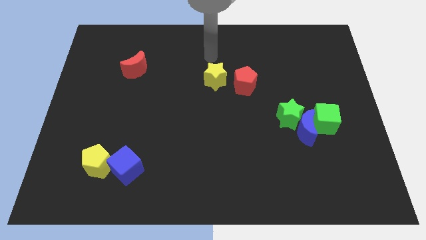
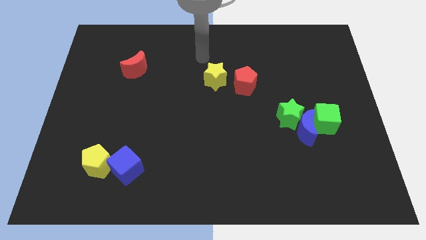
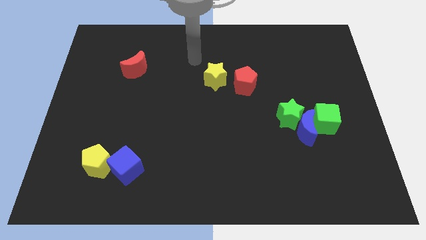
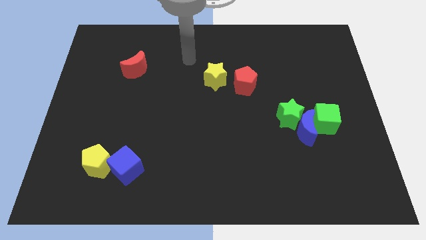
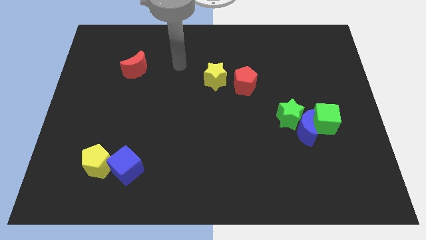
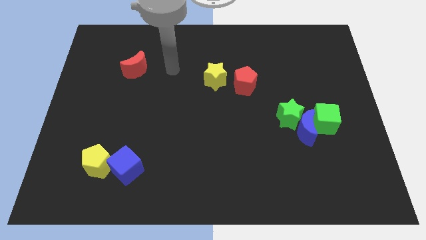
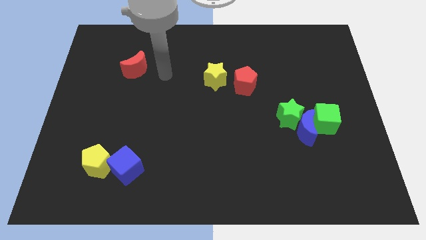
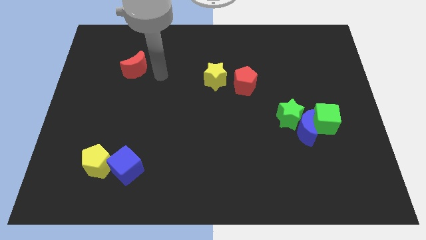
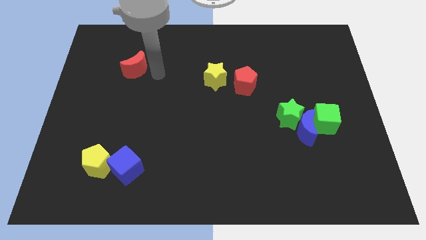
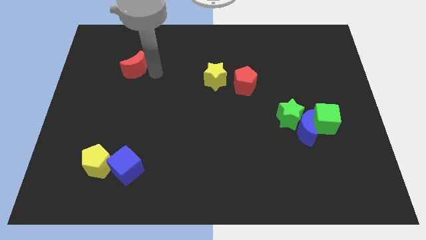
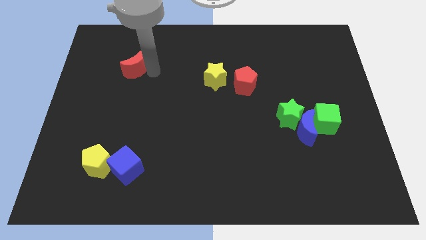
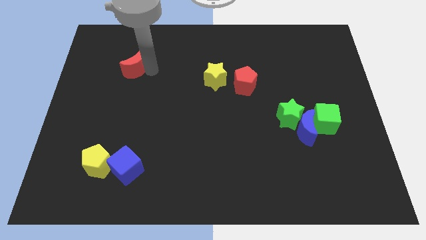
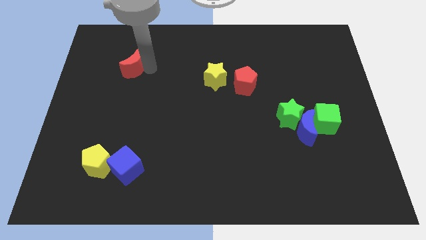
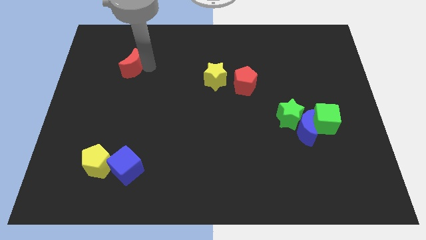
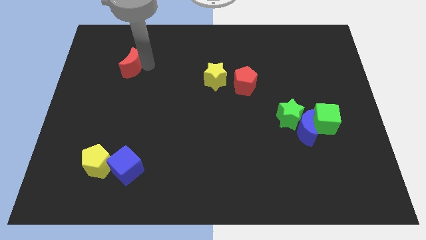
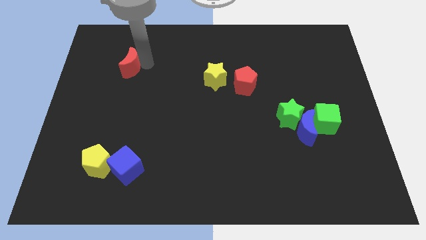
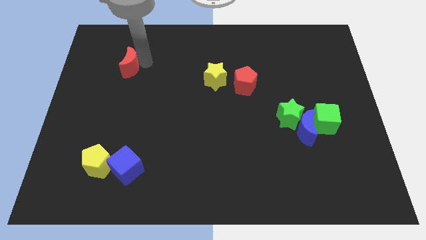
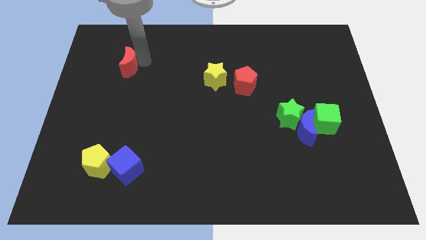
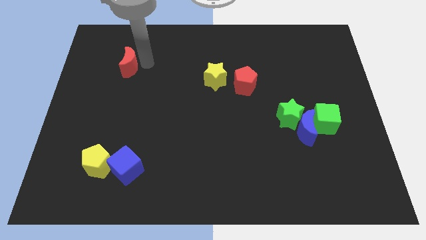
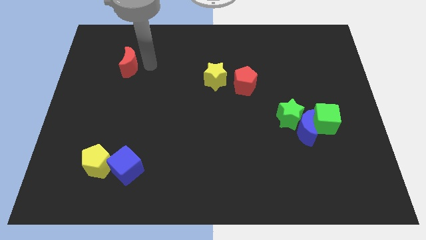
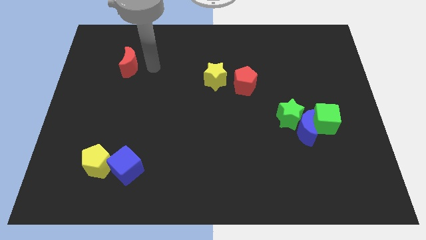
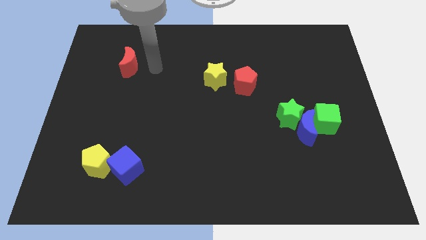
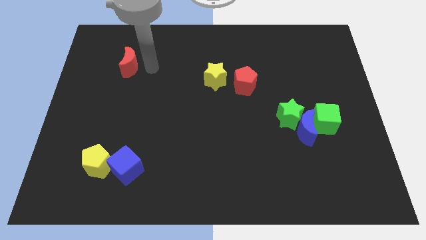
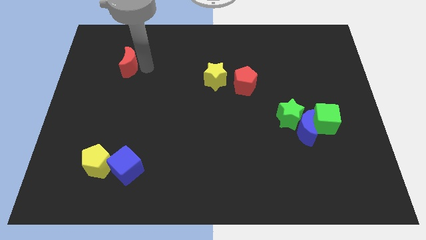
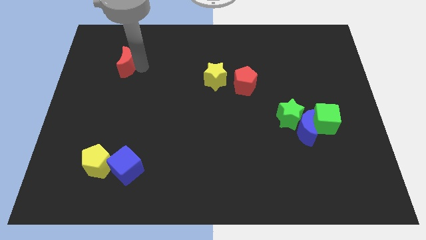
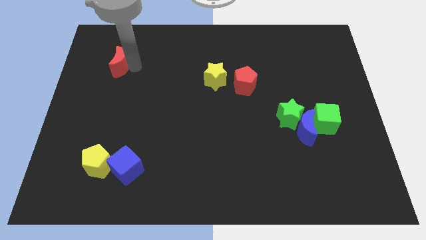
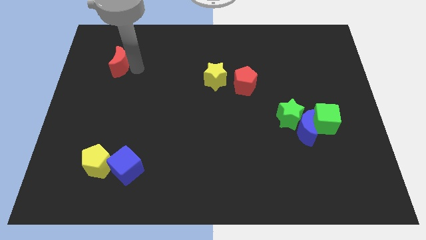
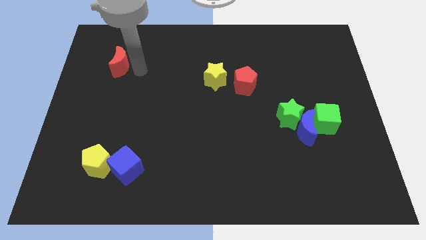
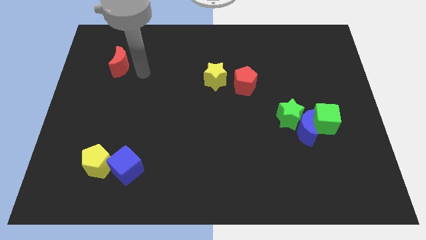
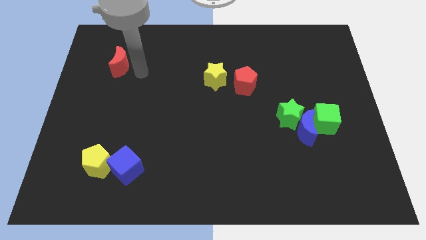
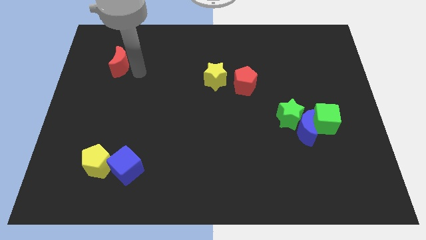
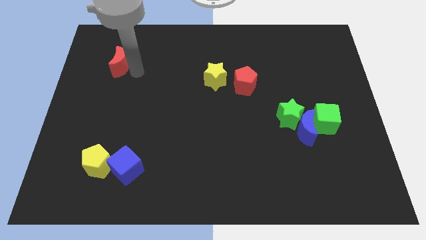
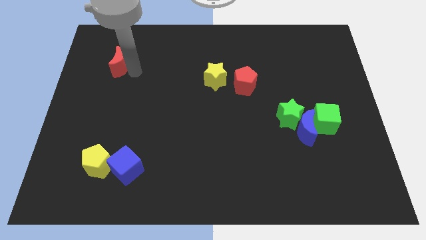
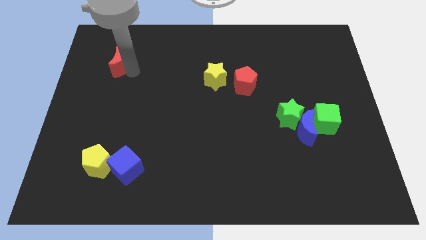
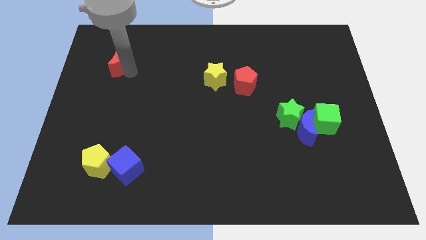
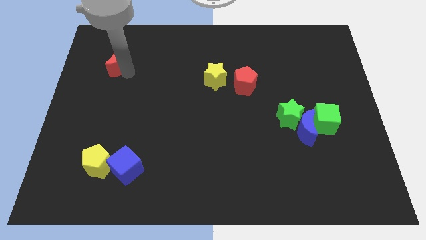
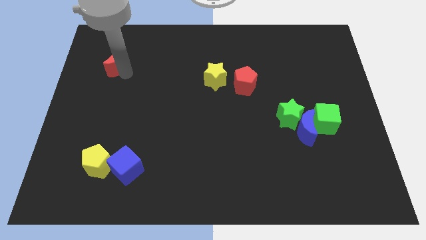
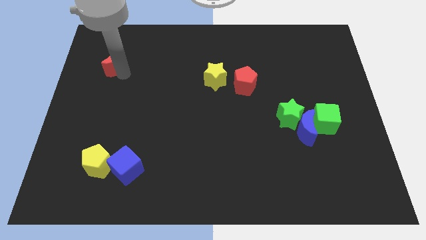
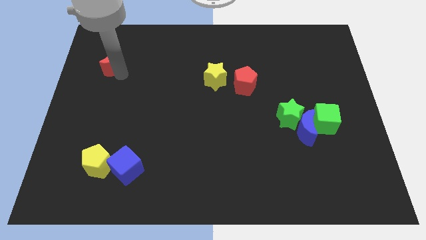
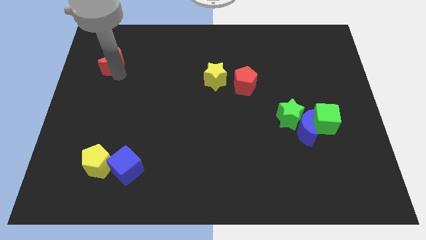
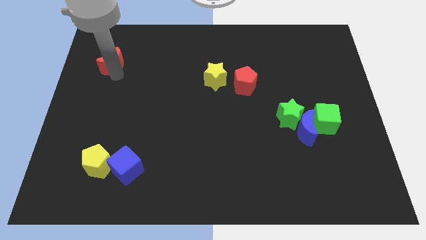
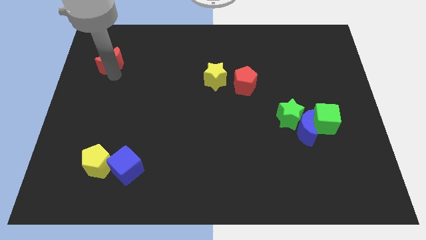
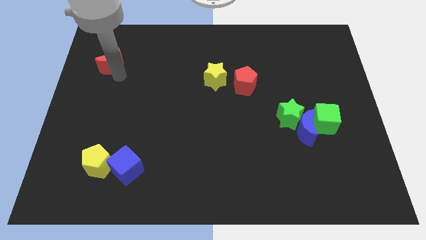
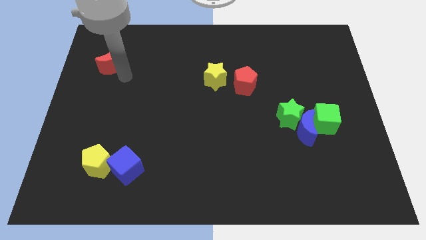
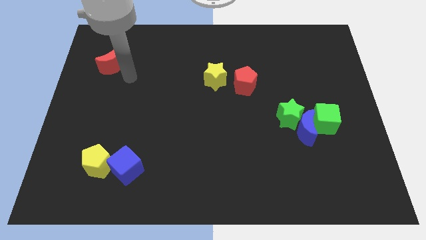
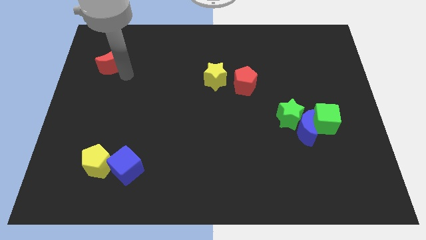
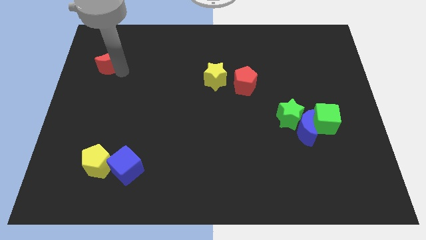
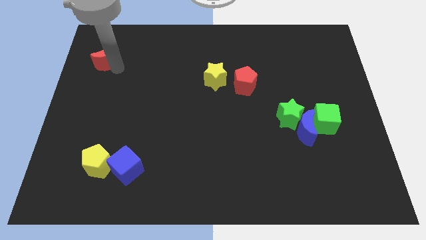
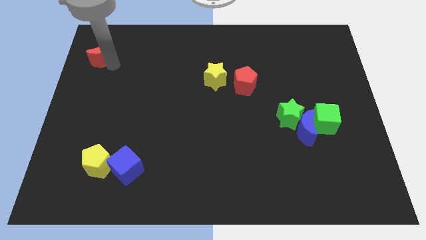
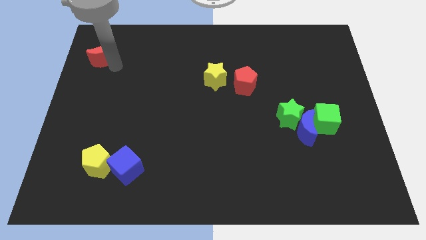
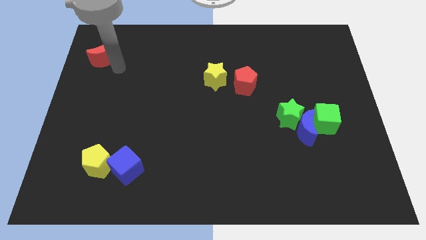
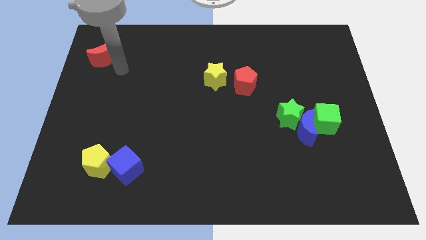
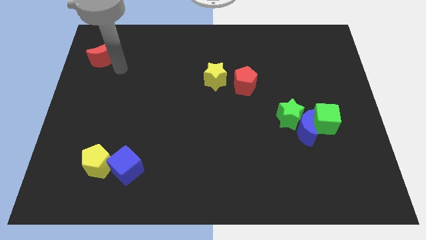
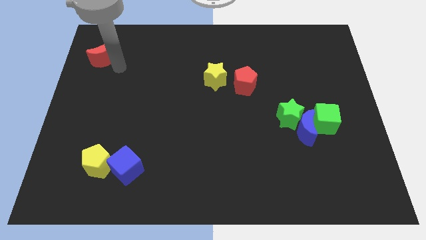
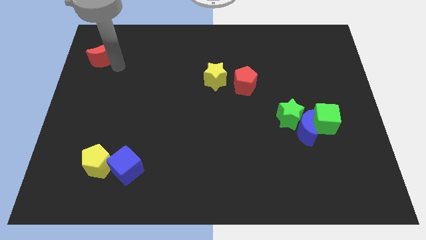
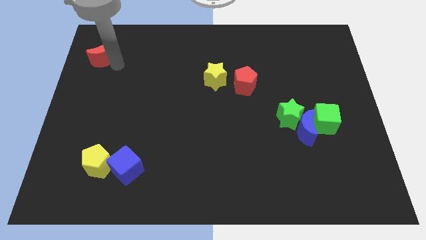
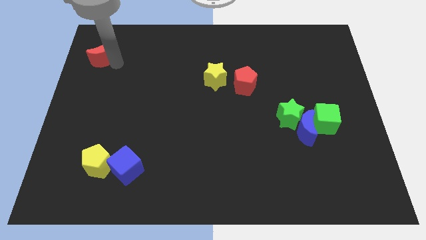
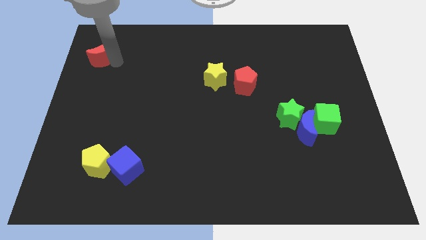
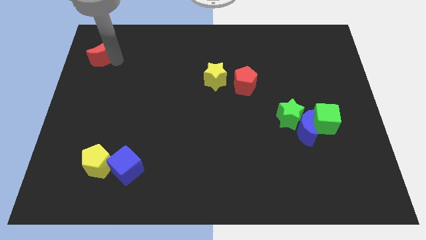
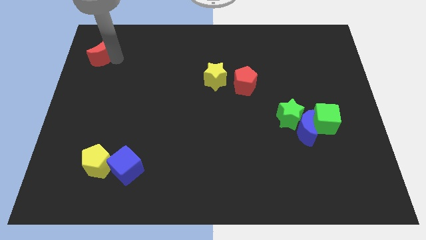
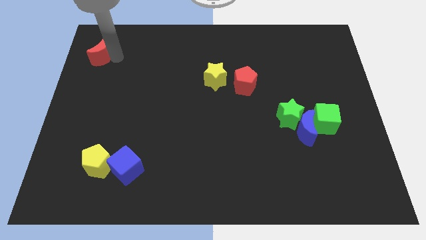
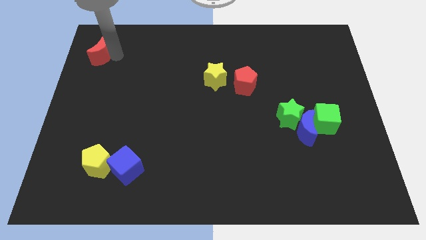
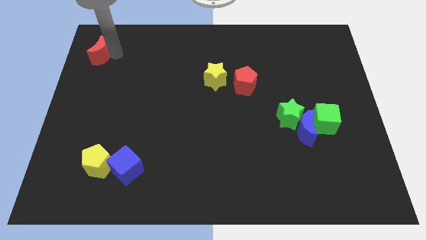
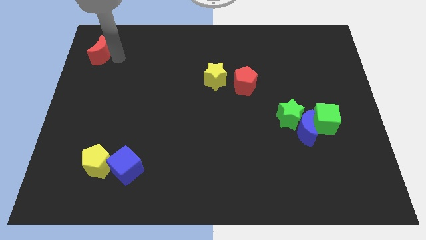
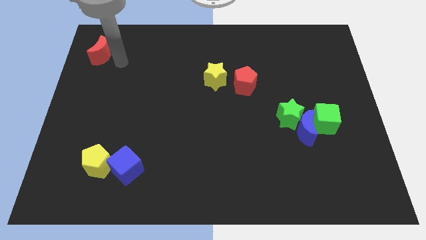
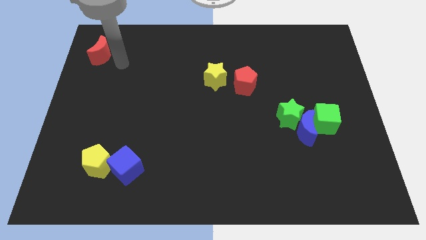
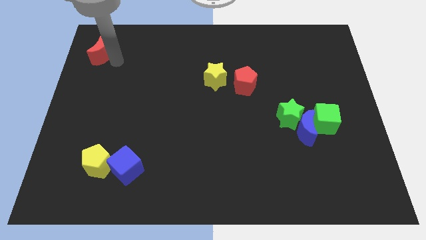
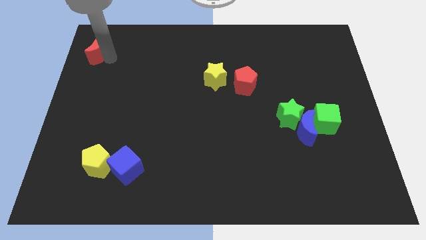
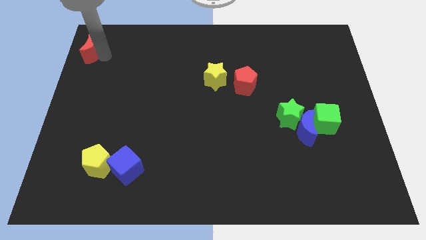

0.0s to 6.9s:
push the red moon to the top left corner

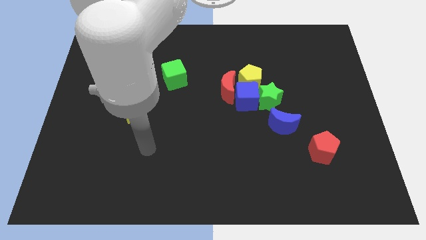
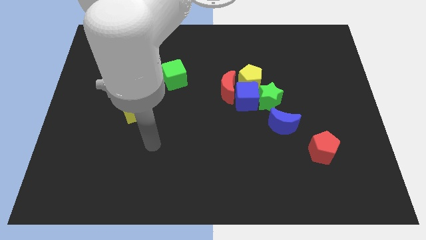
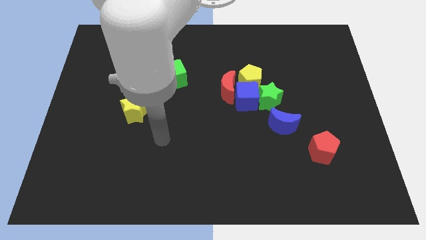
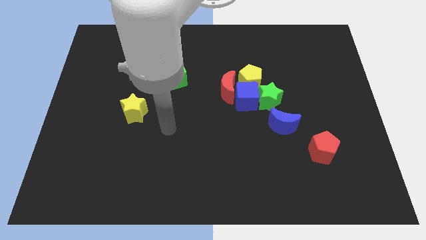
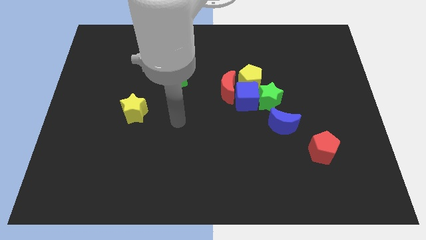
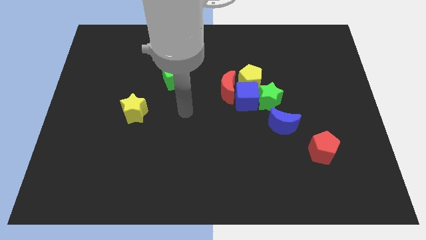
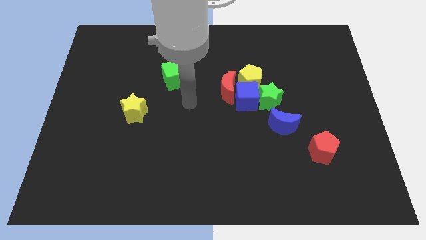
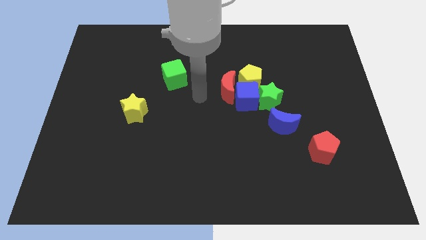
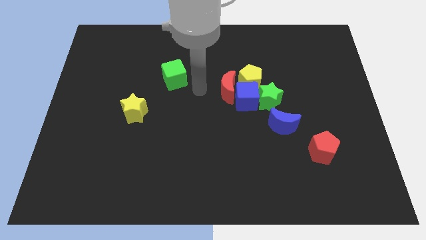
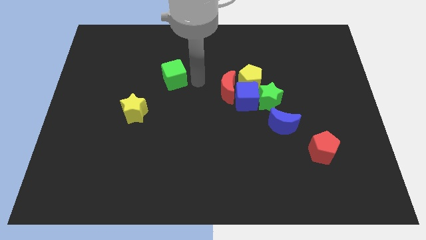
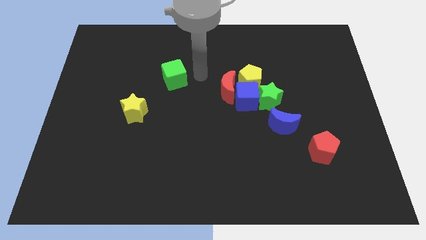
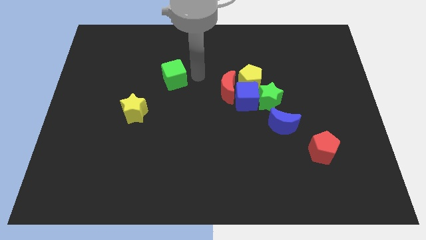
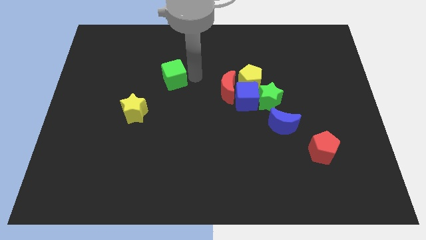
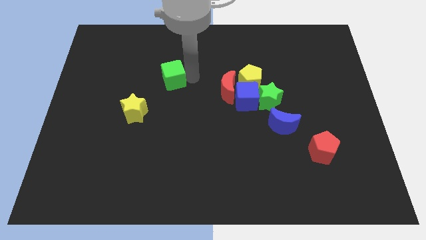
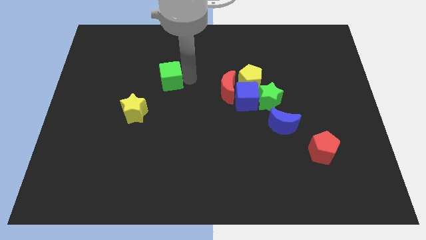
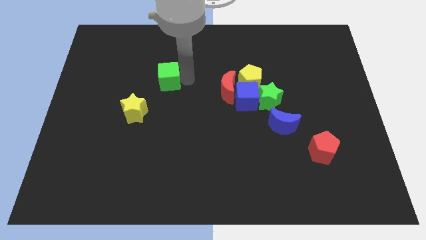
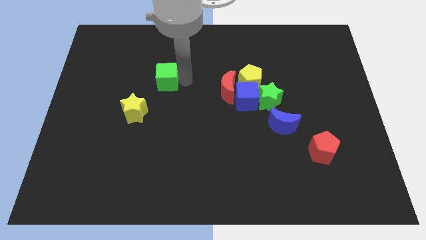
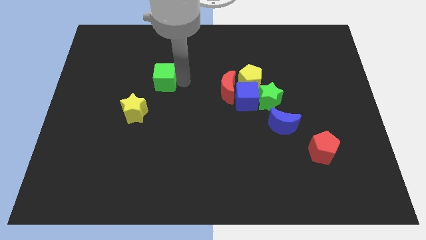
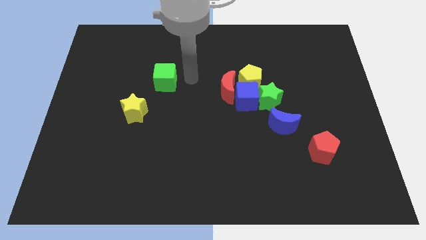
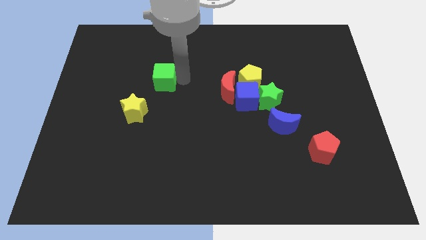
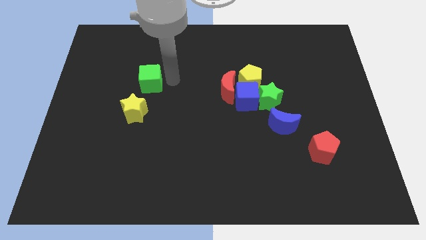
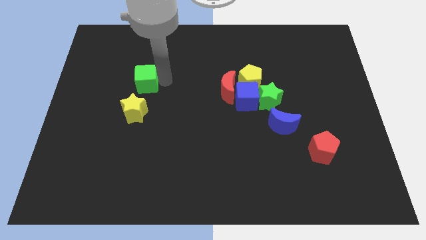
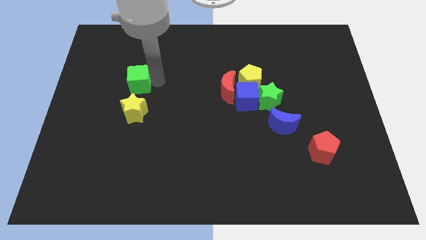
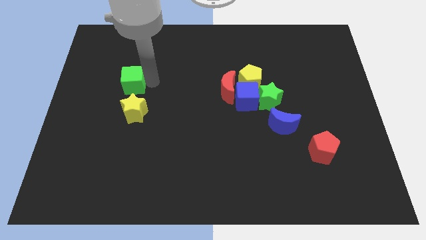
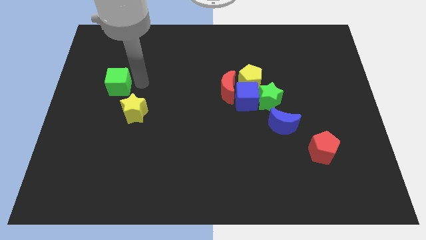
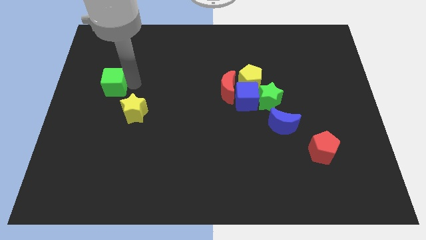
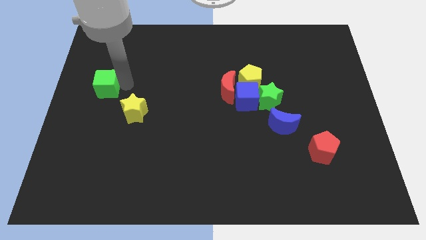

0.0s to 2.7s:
put the green cube to the left side of the board
